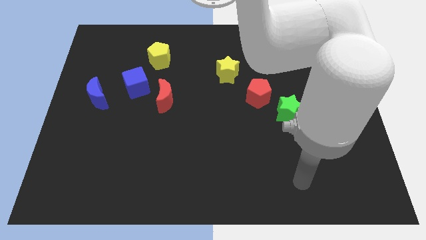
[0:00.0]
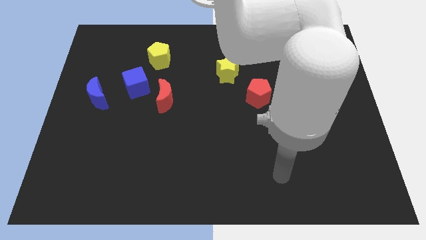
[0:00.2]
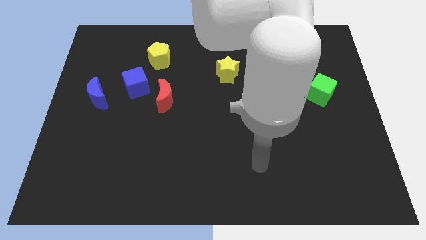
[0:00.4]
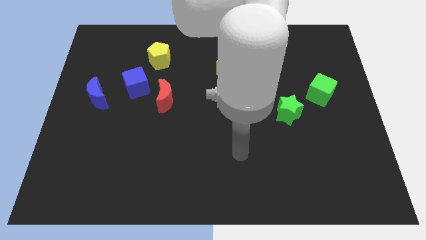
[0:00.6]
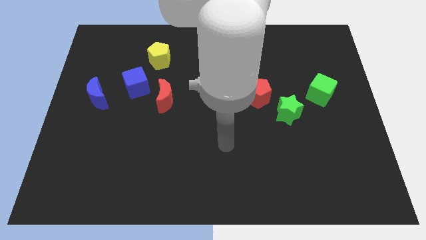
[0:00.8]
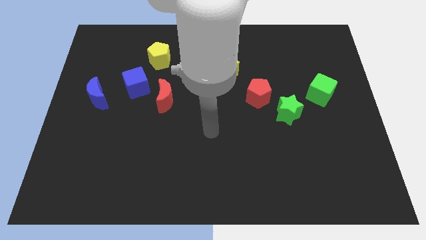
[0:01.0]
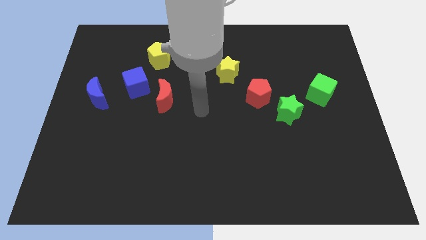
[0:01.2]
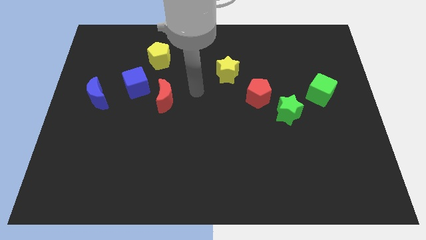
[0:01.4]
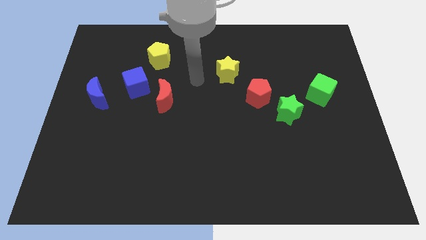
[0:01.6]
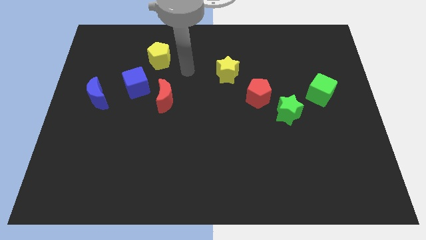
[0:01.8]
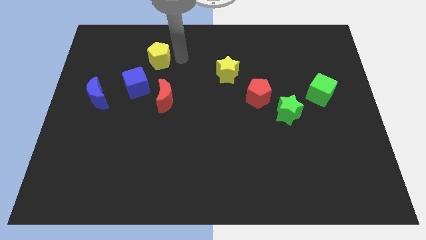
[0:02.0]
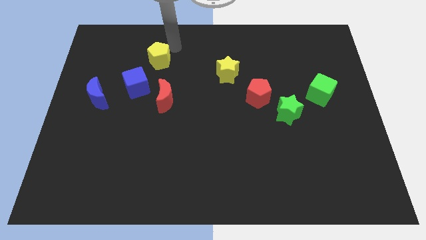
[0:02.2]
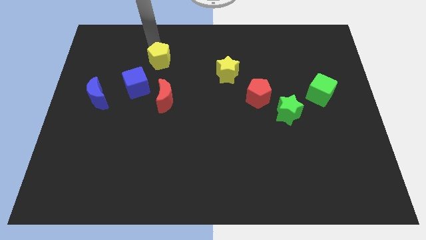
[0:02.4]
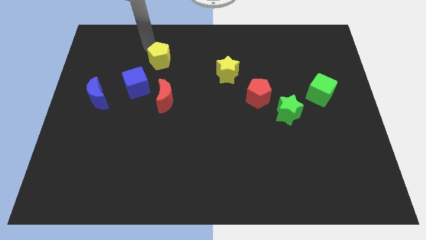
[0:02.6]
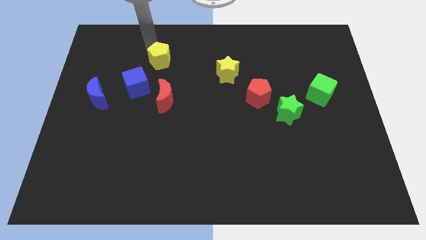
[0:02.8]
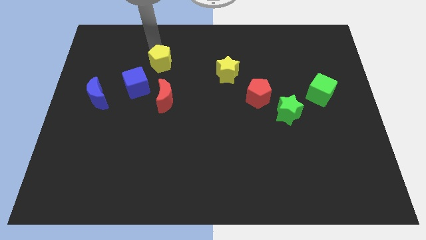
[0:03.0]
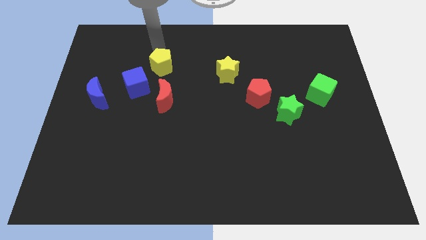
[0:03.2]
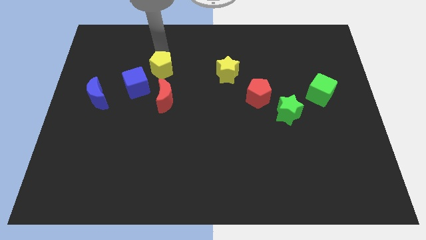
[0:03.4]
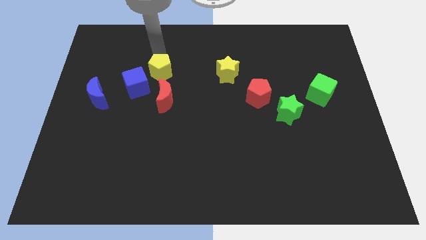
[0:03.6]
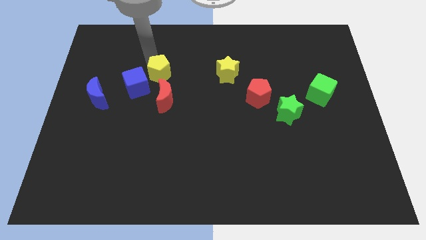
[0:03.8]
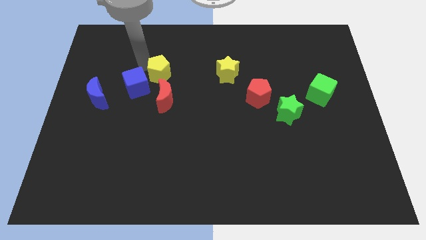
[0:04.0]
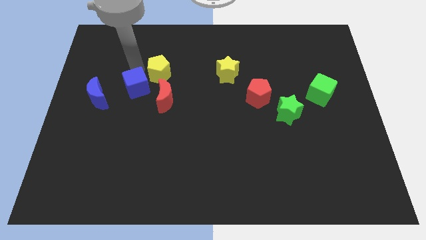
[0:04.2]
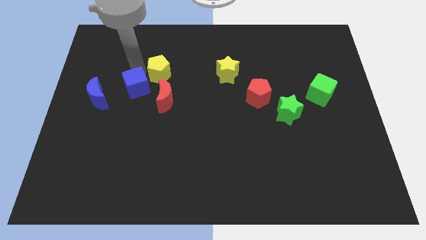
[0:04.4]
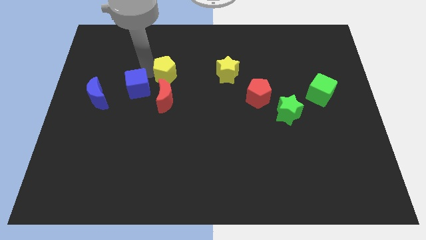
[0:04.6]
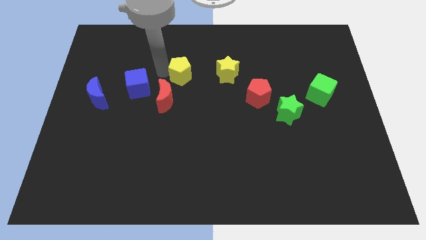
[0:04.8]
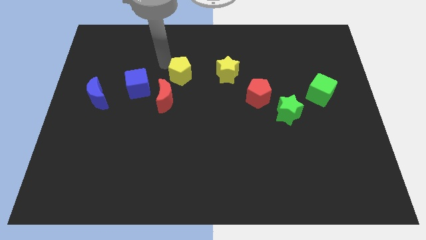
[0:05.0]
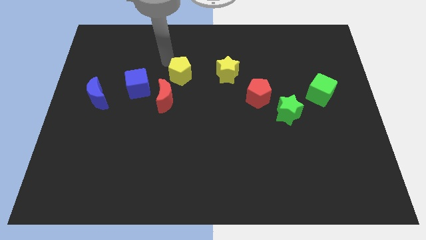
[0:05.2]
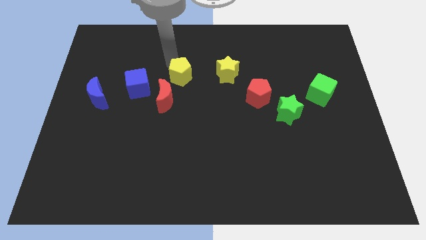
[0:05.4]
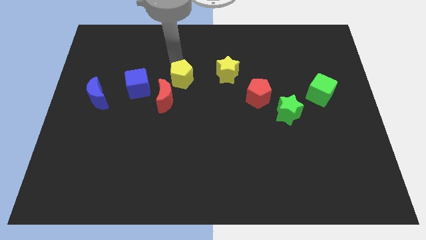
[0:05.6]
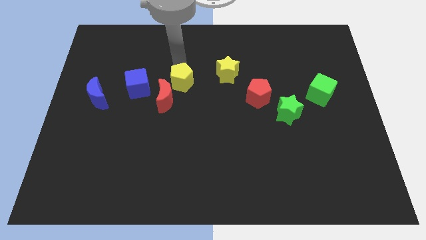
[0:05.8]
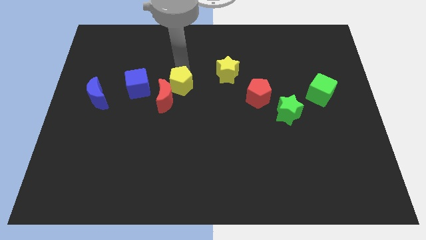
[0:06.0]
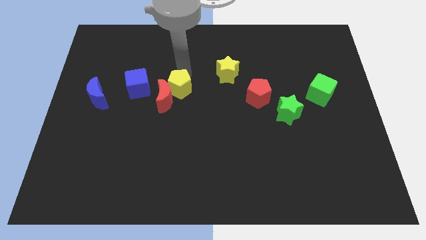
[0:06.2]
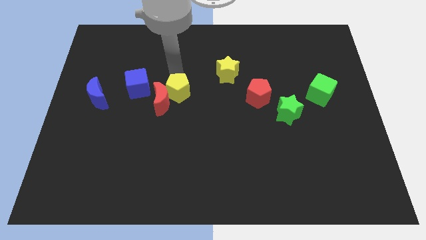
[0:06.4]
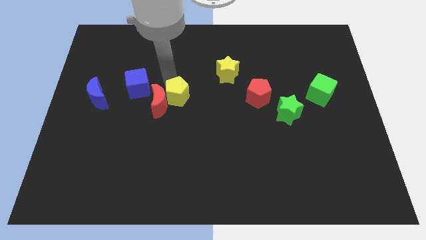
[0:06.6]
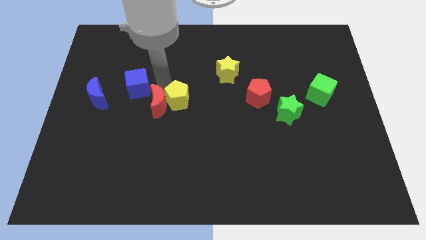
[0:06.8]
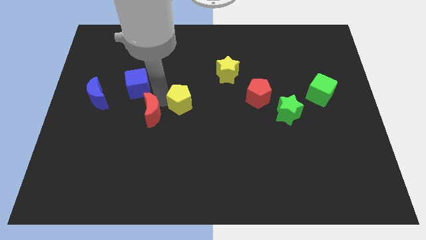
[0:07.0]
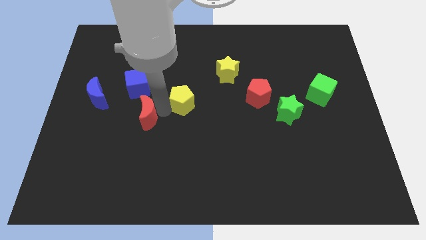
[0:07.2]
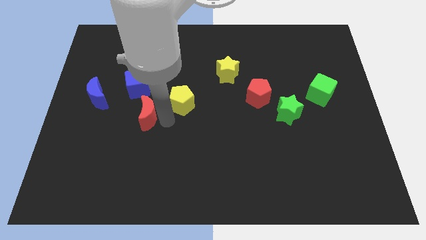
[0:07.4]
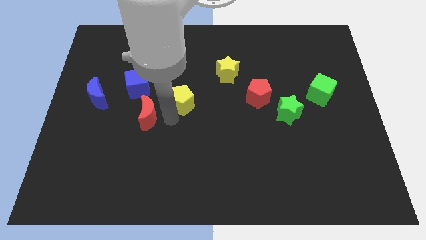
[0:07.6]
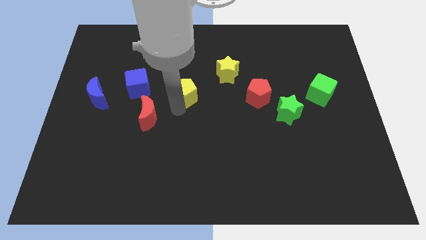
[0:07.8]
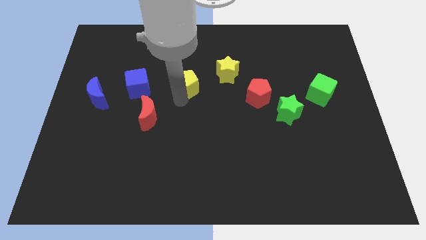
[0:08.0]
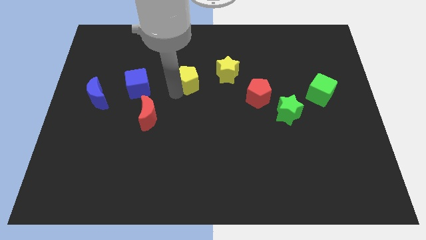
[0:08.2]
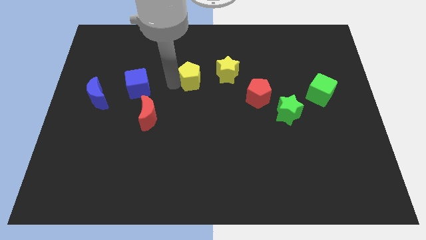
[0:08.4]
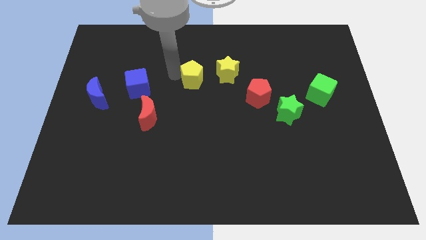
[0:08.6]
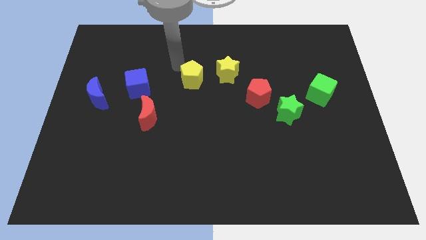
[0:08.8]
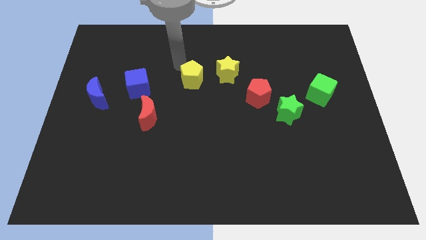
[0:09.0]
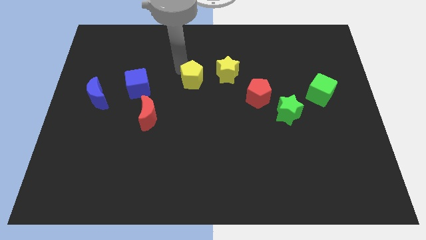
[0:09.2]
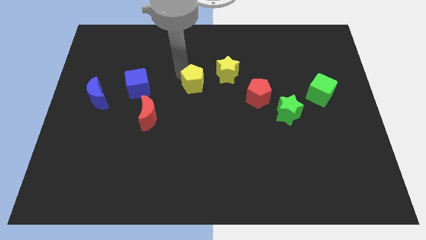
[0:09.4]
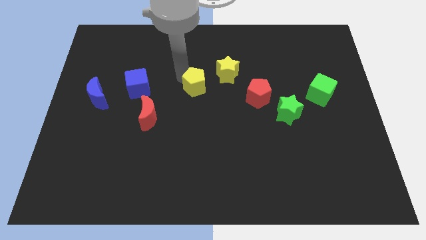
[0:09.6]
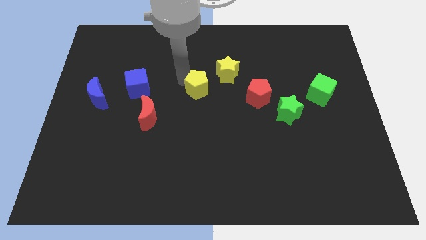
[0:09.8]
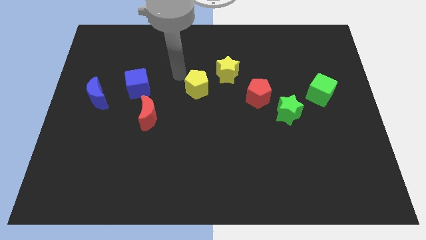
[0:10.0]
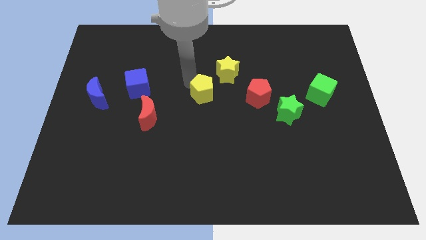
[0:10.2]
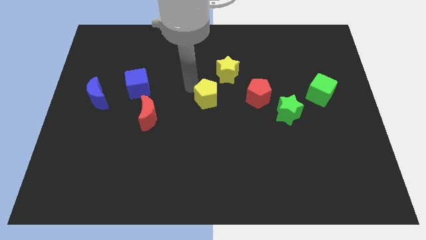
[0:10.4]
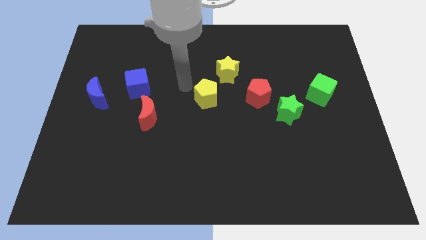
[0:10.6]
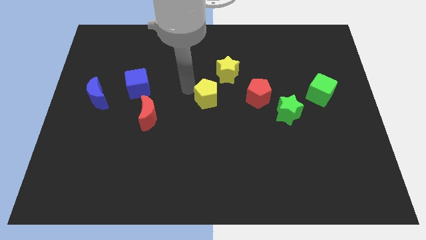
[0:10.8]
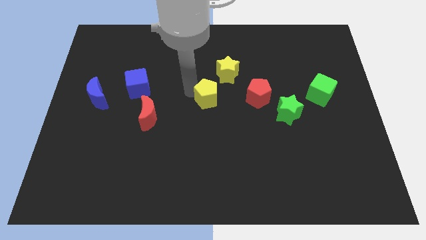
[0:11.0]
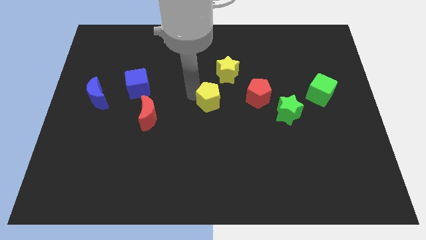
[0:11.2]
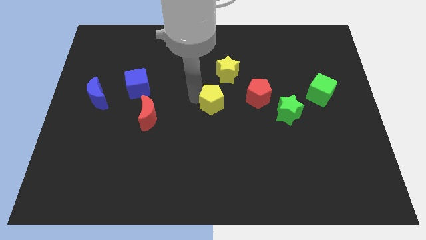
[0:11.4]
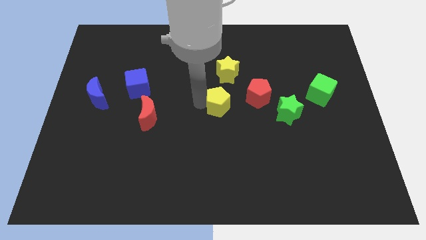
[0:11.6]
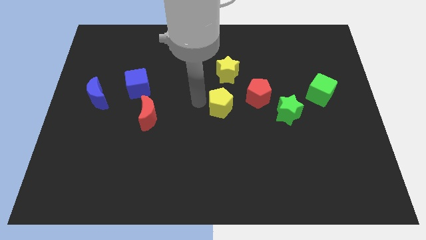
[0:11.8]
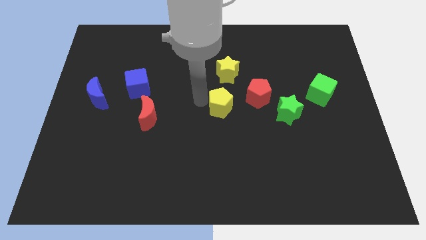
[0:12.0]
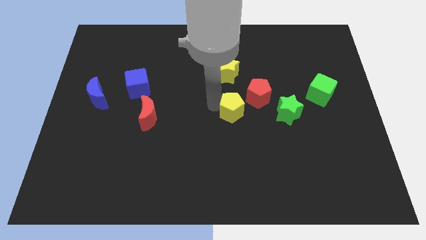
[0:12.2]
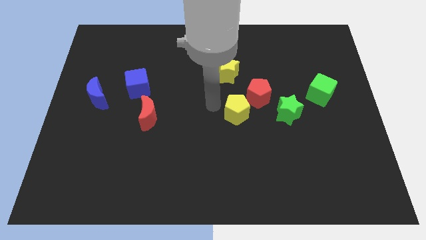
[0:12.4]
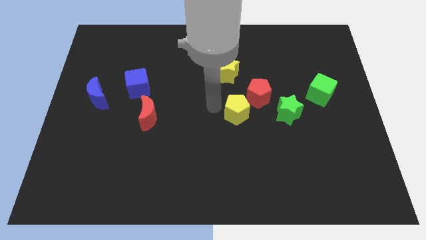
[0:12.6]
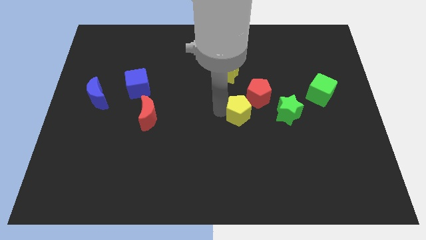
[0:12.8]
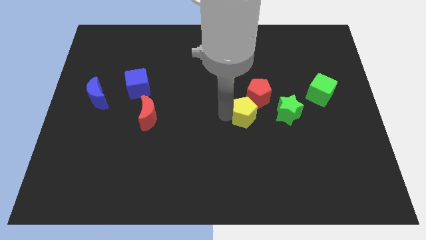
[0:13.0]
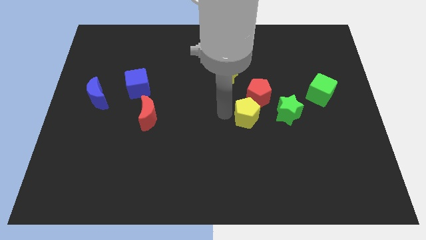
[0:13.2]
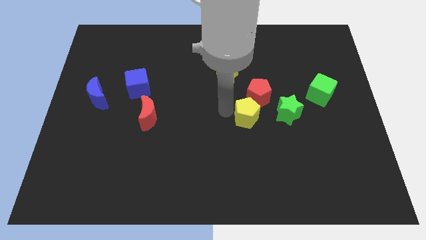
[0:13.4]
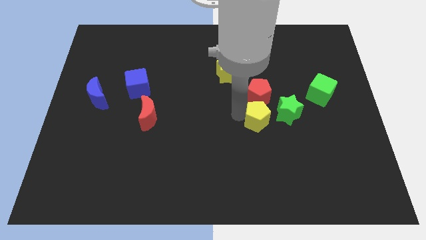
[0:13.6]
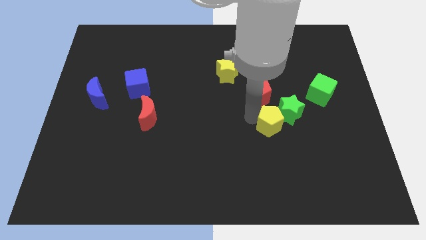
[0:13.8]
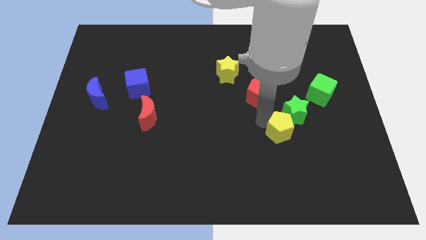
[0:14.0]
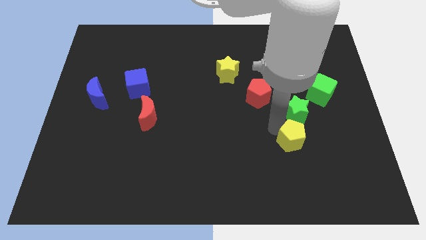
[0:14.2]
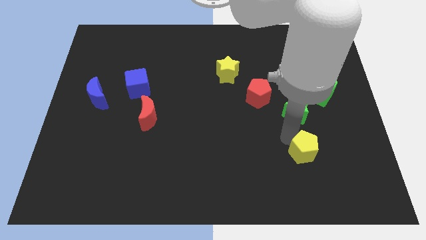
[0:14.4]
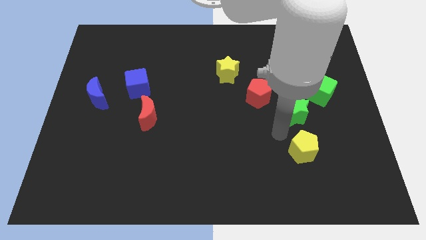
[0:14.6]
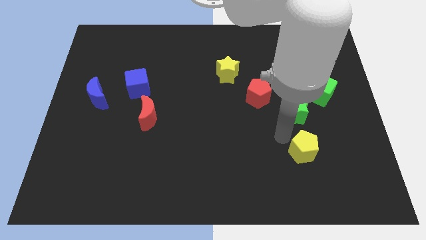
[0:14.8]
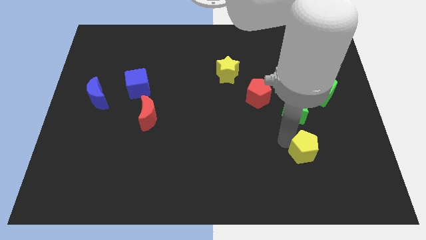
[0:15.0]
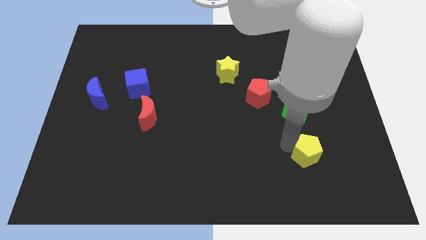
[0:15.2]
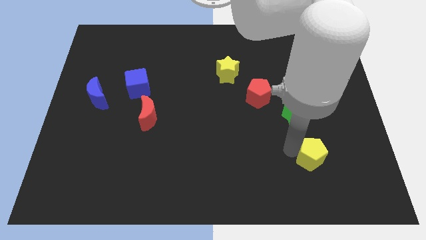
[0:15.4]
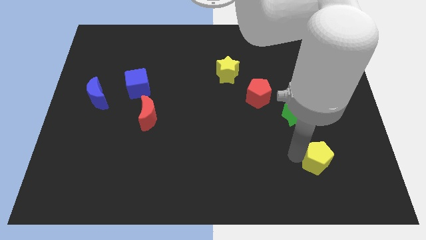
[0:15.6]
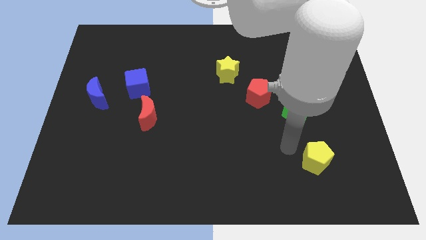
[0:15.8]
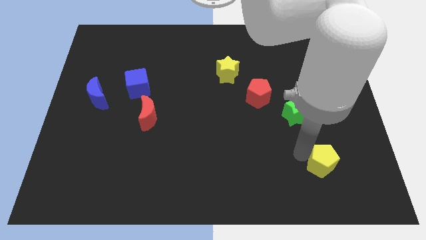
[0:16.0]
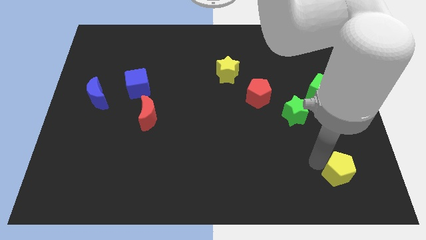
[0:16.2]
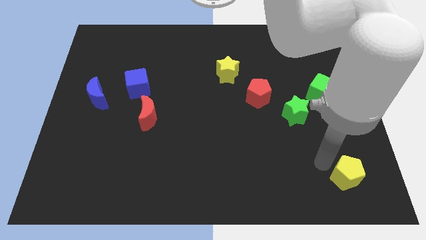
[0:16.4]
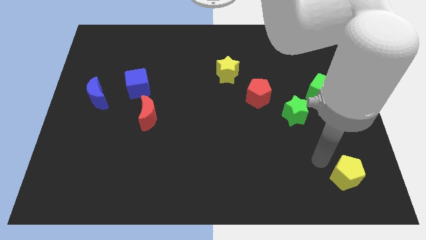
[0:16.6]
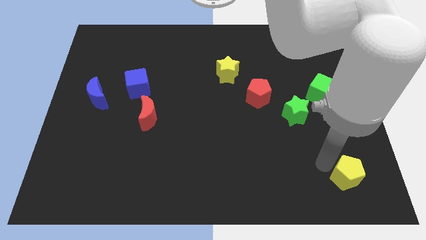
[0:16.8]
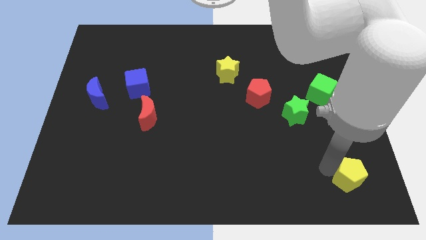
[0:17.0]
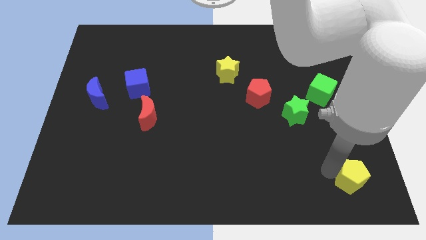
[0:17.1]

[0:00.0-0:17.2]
put the yellow pentagon to the bottom right
